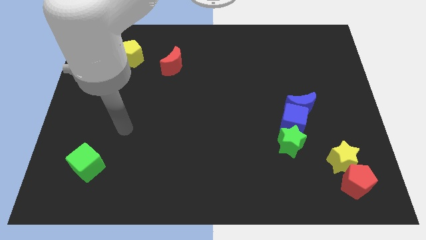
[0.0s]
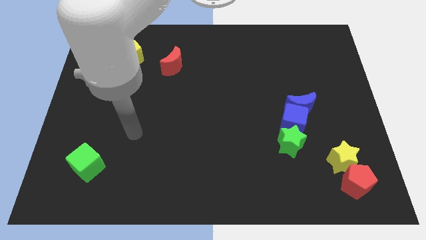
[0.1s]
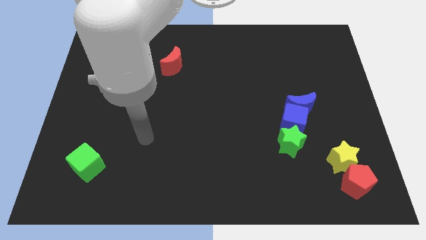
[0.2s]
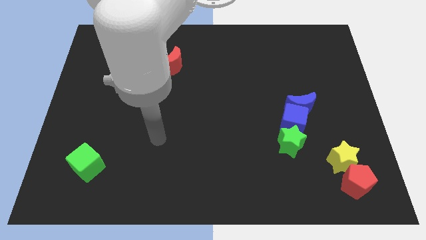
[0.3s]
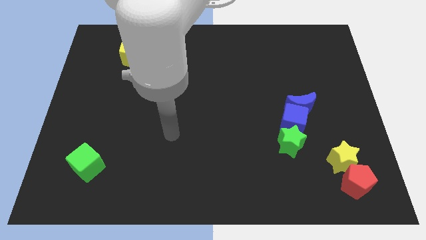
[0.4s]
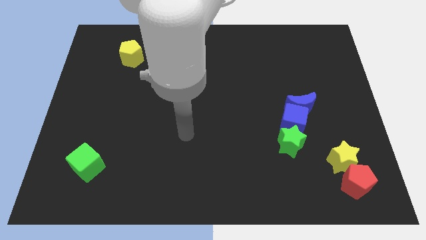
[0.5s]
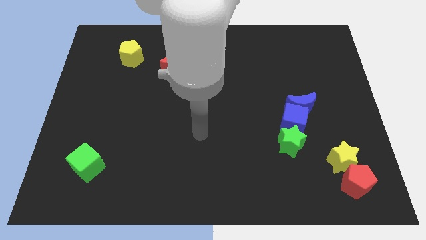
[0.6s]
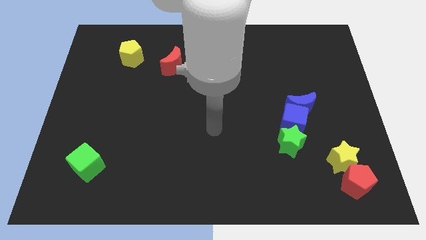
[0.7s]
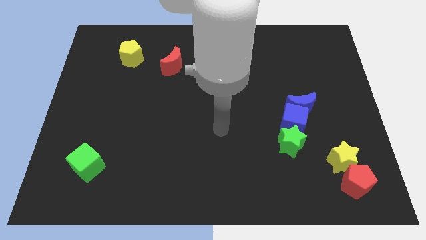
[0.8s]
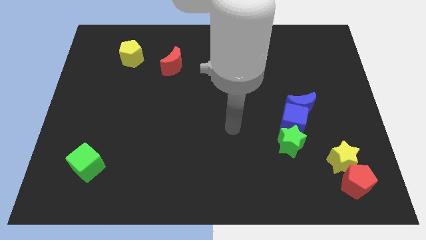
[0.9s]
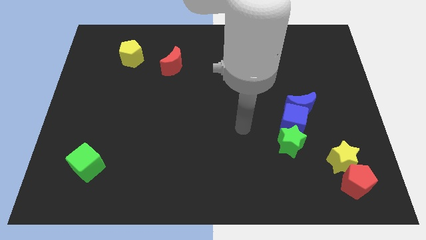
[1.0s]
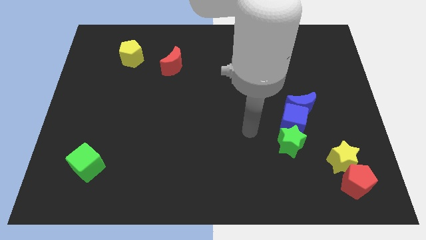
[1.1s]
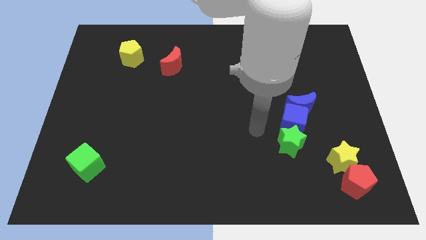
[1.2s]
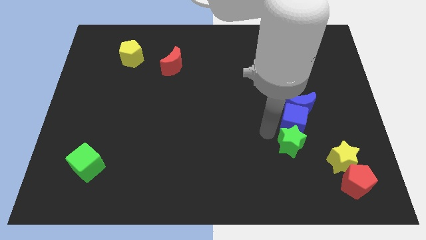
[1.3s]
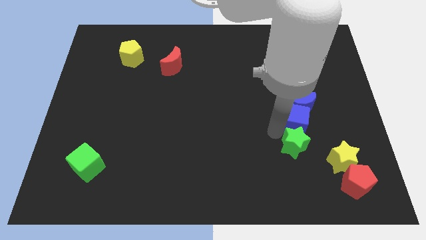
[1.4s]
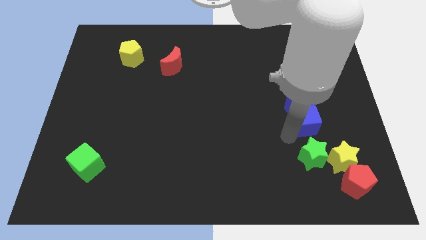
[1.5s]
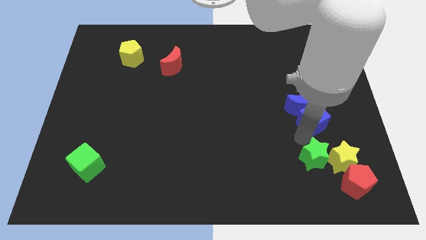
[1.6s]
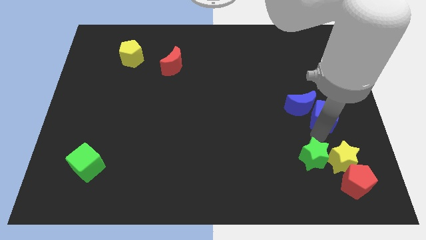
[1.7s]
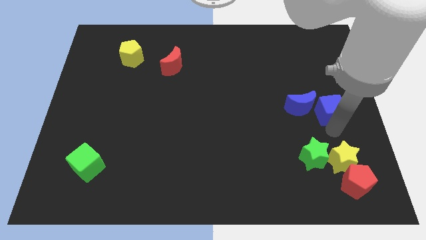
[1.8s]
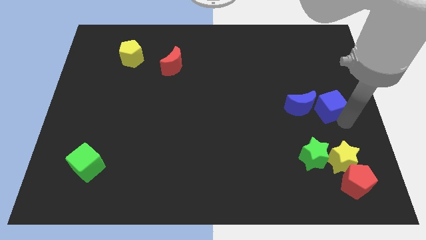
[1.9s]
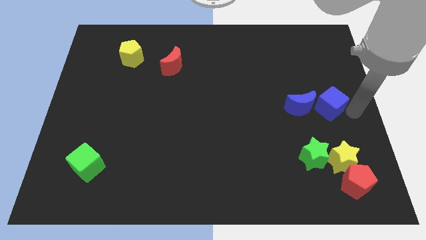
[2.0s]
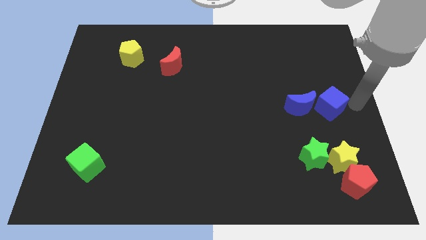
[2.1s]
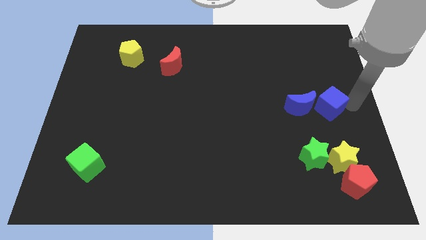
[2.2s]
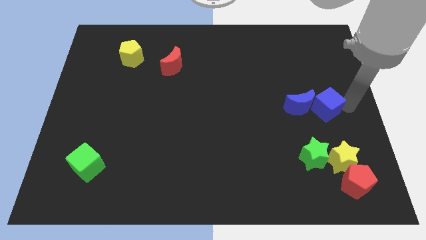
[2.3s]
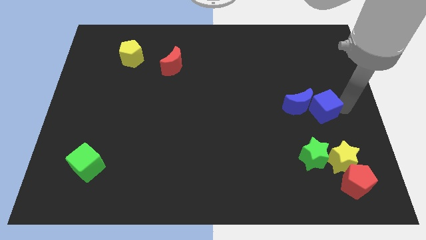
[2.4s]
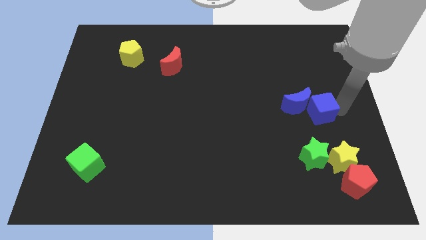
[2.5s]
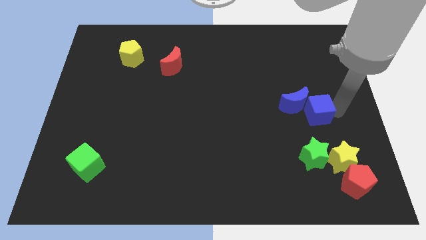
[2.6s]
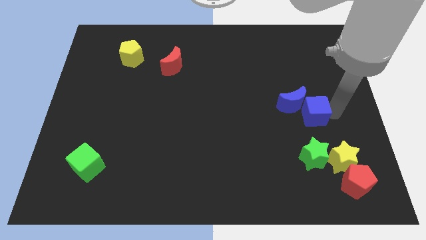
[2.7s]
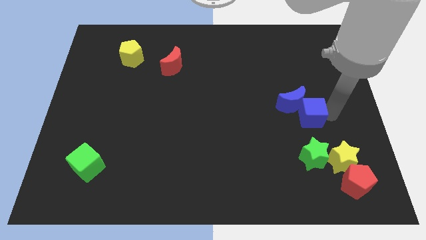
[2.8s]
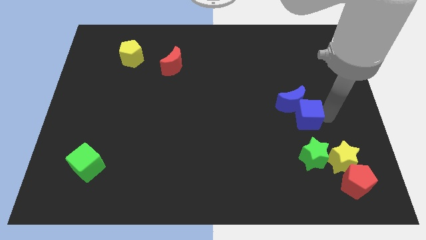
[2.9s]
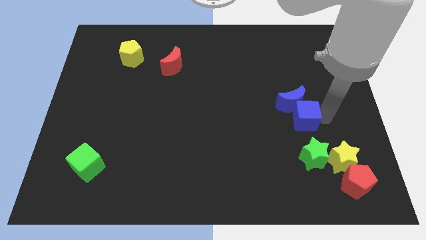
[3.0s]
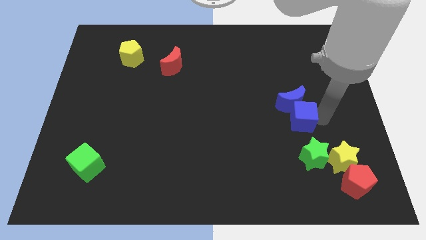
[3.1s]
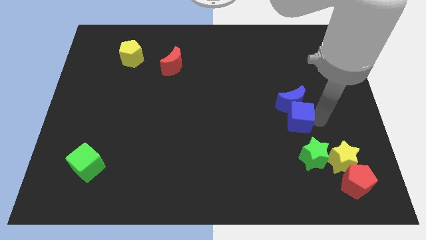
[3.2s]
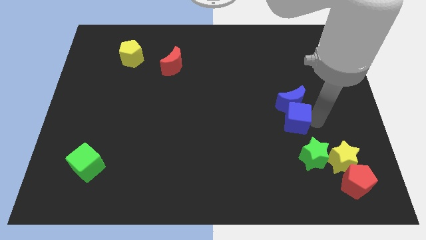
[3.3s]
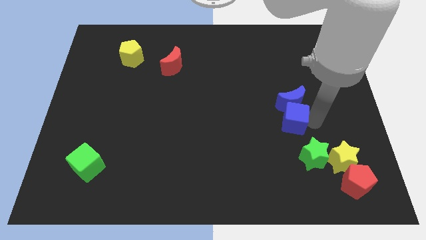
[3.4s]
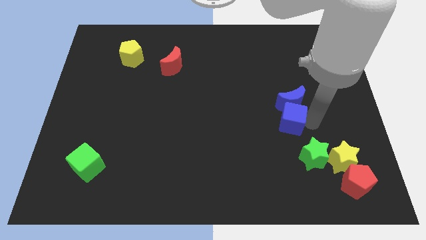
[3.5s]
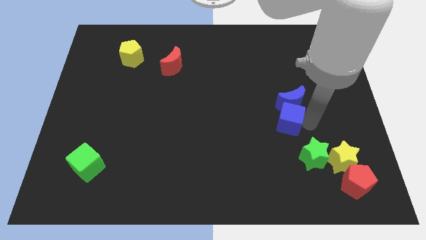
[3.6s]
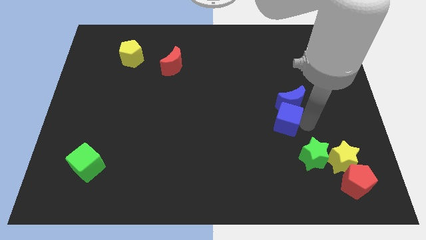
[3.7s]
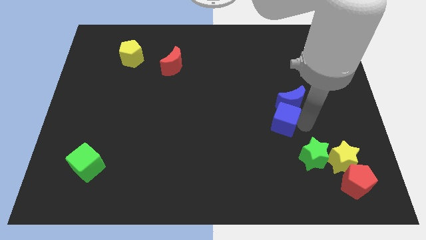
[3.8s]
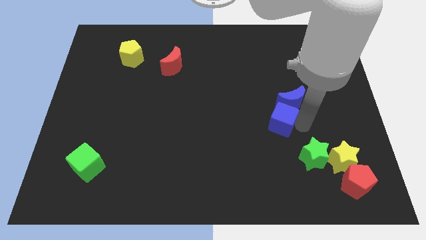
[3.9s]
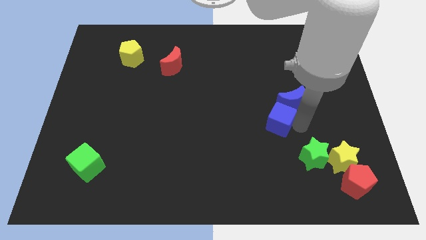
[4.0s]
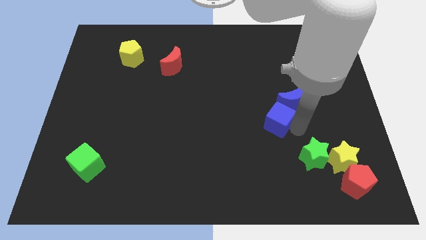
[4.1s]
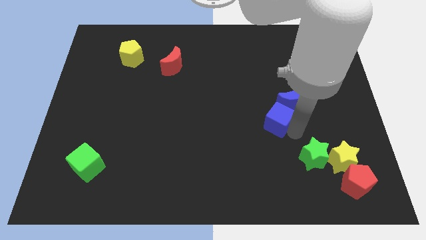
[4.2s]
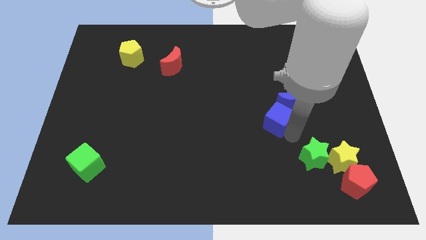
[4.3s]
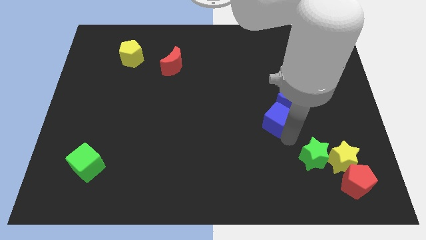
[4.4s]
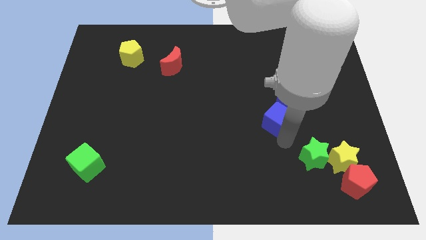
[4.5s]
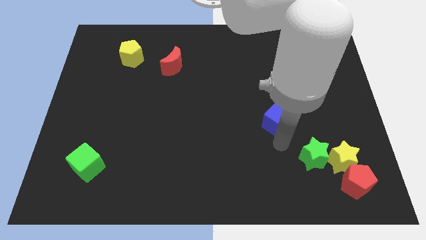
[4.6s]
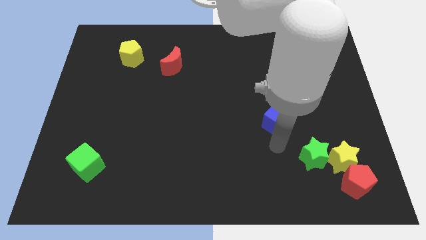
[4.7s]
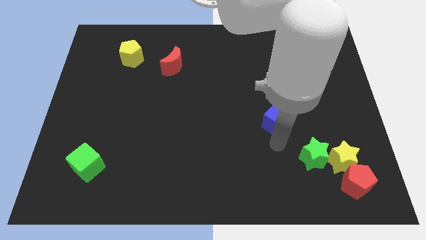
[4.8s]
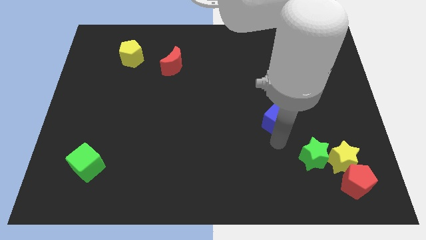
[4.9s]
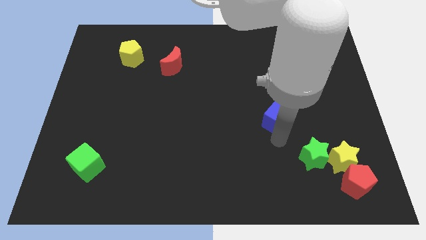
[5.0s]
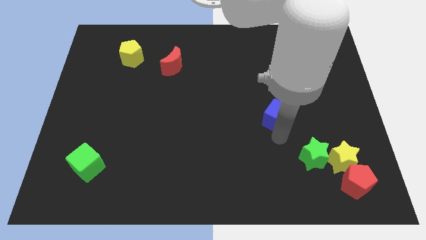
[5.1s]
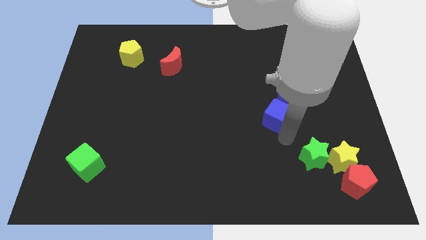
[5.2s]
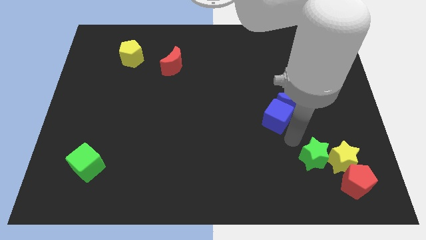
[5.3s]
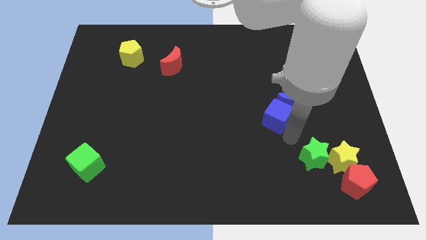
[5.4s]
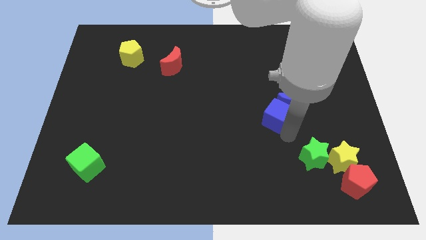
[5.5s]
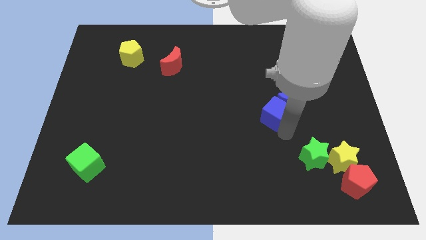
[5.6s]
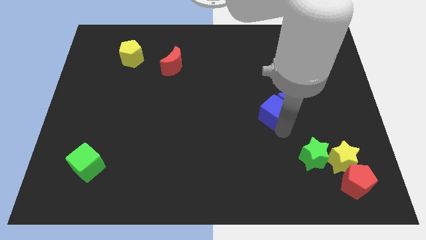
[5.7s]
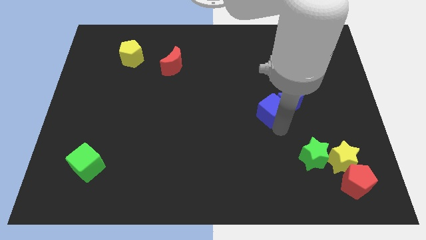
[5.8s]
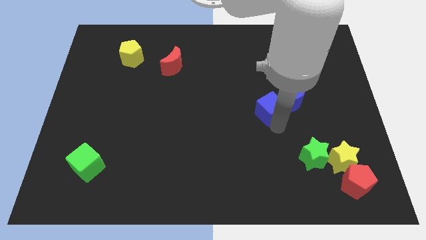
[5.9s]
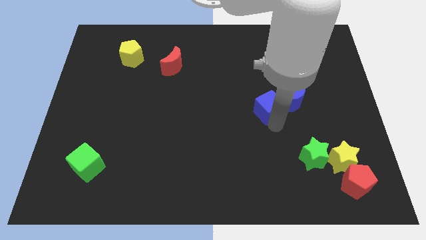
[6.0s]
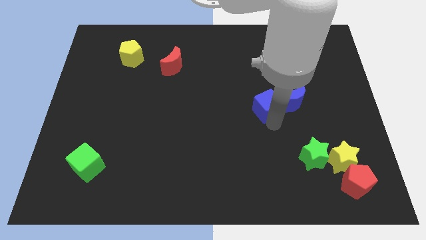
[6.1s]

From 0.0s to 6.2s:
push the blue cube somewhat up and left

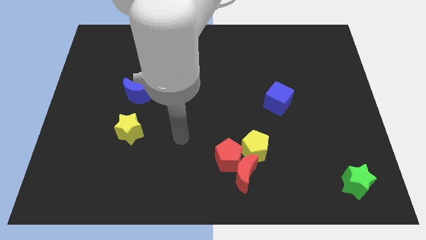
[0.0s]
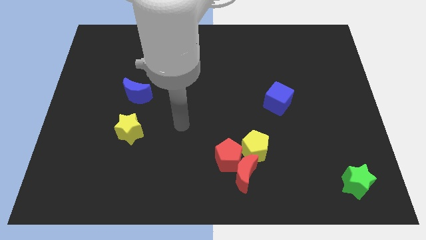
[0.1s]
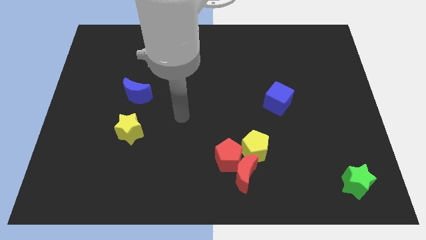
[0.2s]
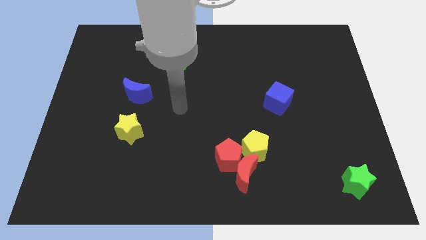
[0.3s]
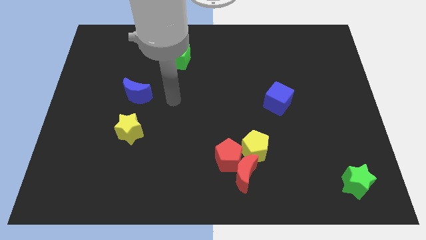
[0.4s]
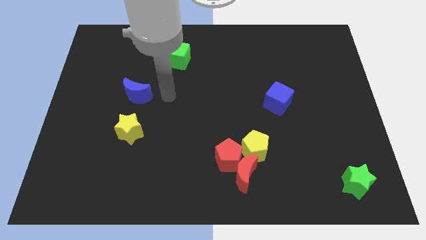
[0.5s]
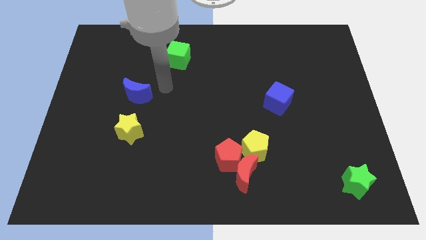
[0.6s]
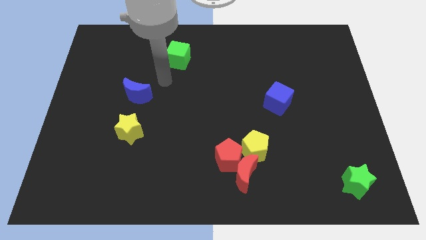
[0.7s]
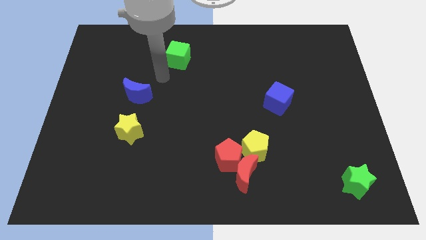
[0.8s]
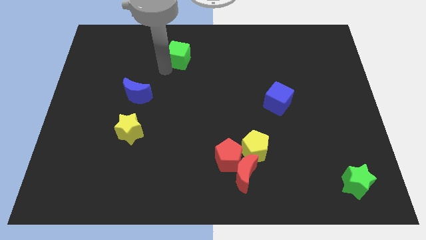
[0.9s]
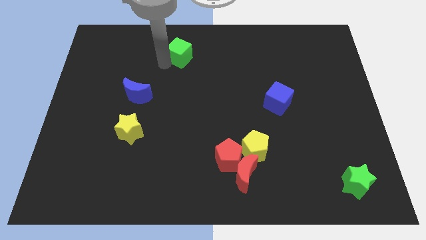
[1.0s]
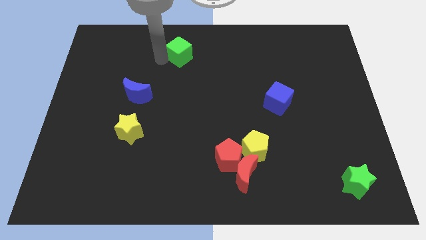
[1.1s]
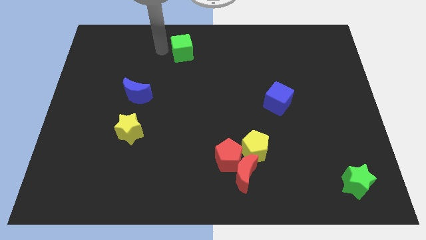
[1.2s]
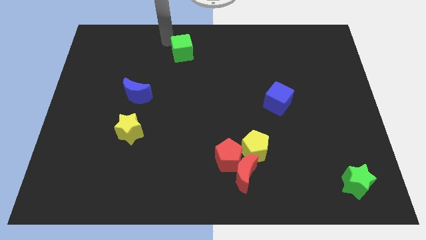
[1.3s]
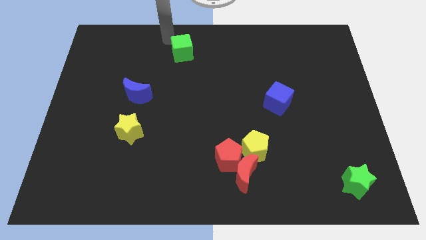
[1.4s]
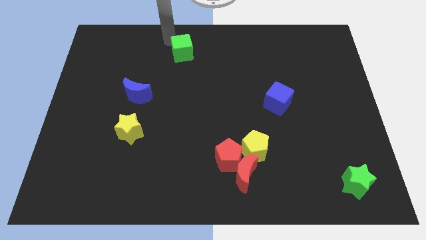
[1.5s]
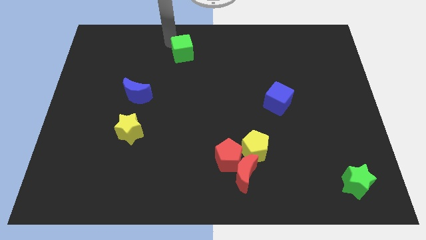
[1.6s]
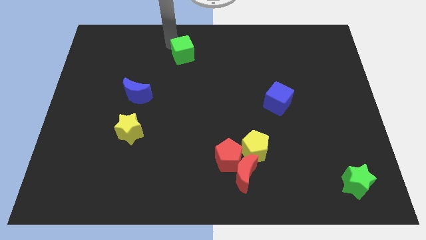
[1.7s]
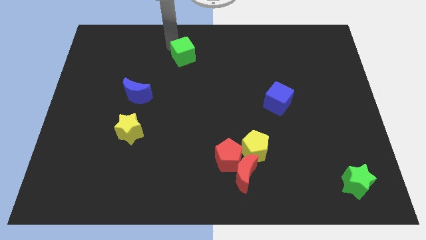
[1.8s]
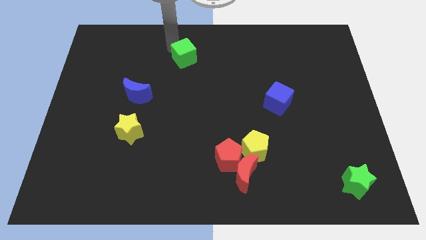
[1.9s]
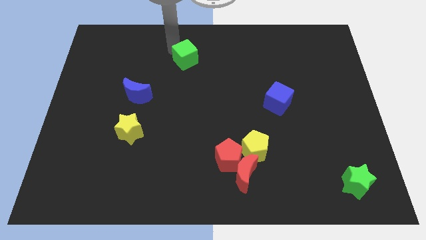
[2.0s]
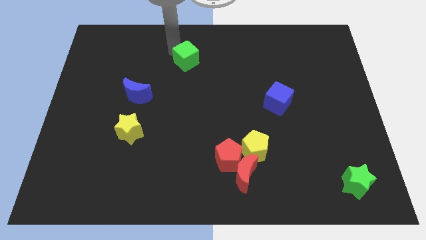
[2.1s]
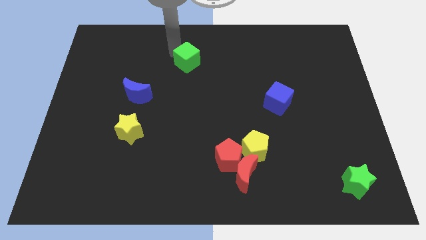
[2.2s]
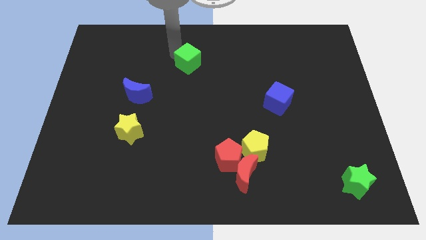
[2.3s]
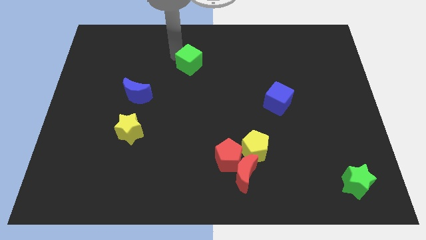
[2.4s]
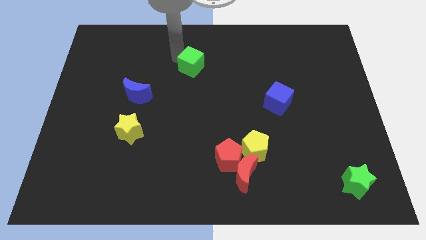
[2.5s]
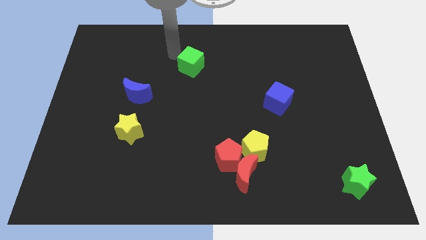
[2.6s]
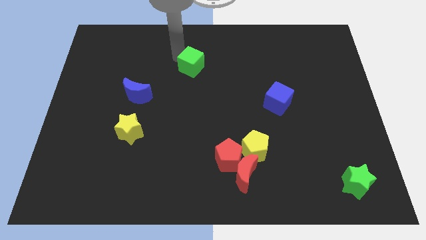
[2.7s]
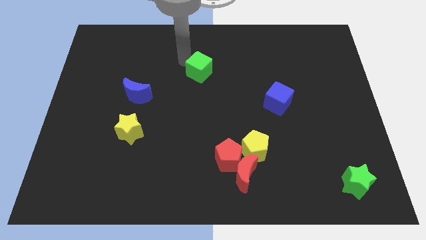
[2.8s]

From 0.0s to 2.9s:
slightly slide the green cube downwards and right
